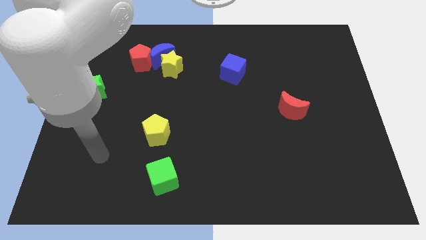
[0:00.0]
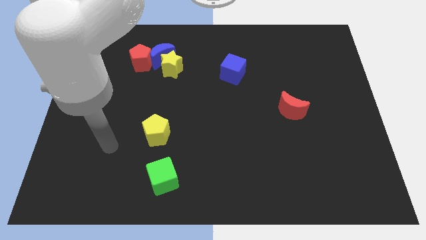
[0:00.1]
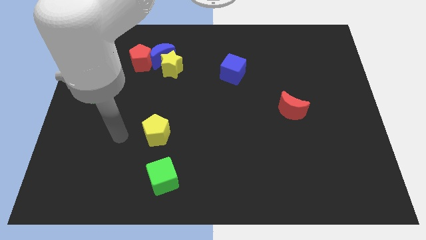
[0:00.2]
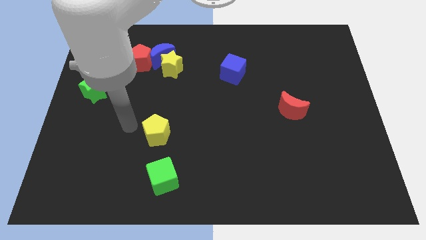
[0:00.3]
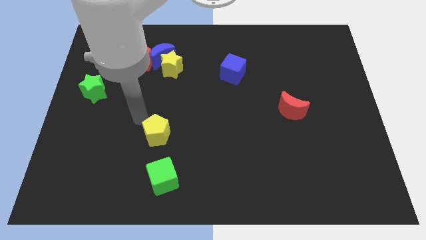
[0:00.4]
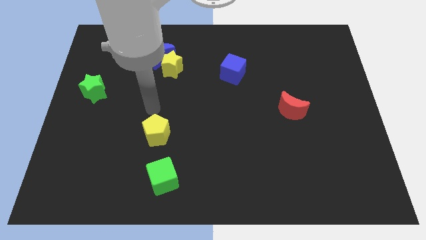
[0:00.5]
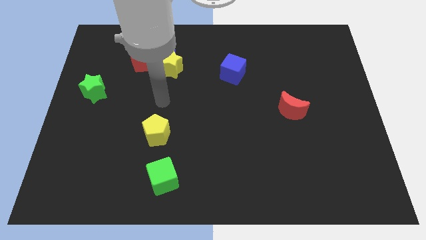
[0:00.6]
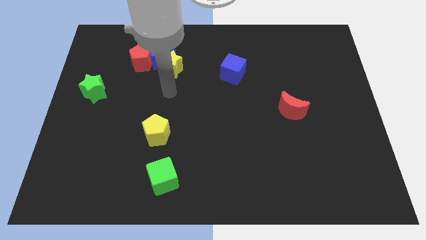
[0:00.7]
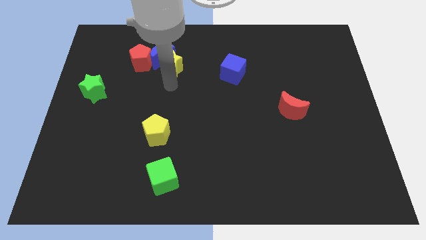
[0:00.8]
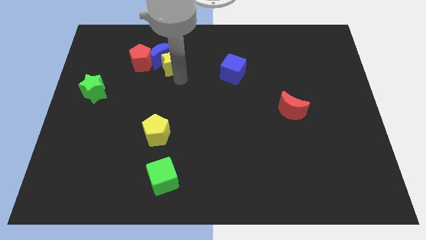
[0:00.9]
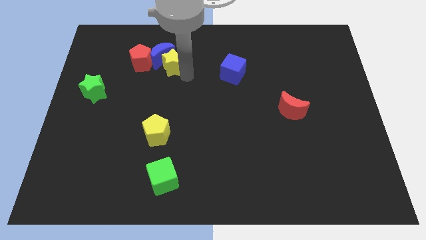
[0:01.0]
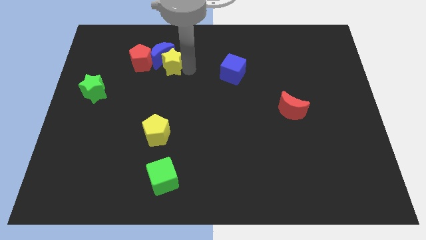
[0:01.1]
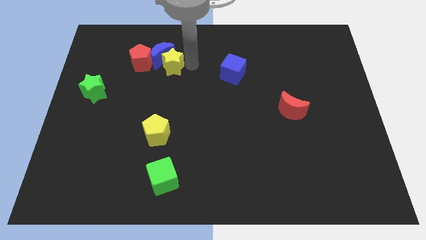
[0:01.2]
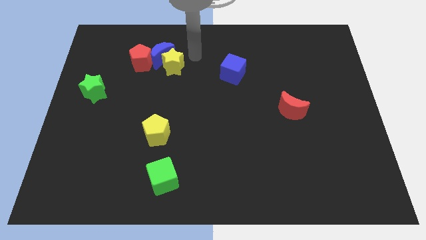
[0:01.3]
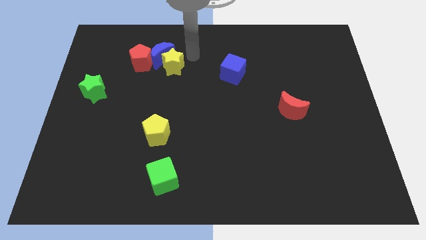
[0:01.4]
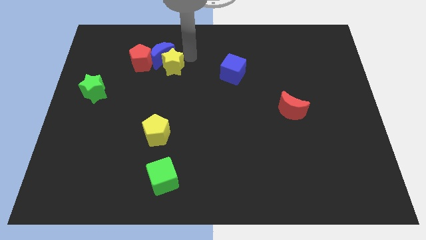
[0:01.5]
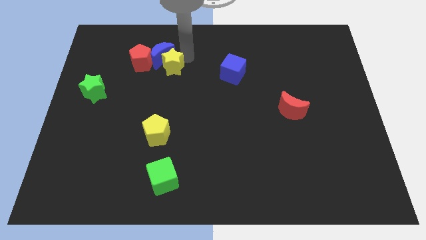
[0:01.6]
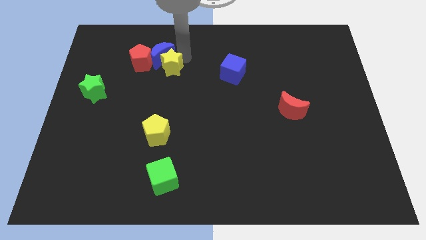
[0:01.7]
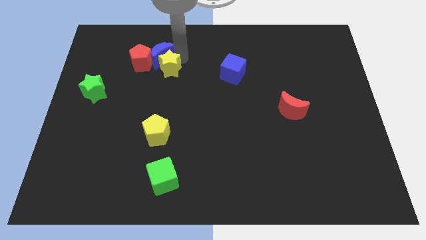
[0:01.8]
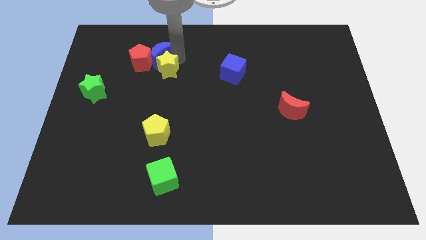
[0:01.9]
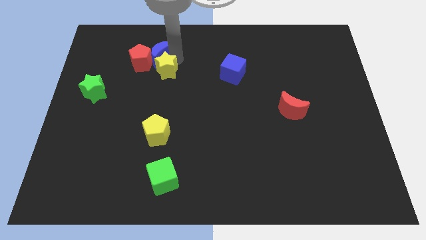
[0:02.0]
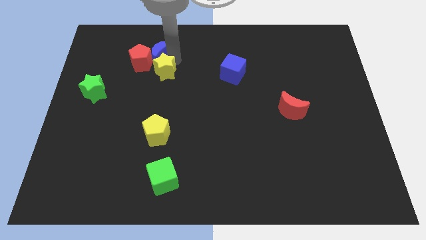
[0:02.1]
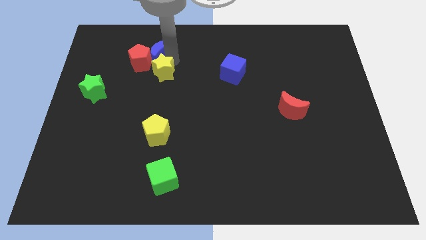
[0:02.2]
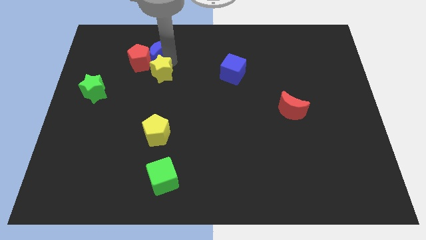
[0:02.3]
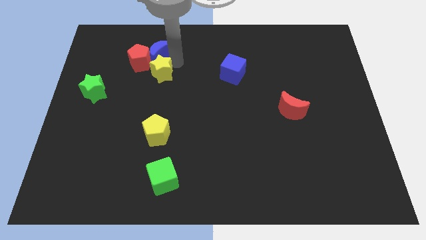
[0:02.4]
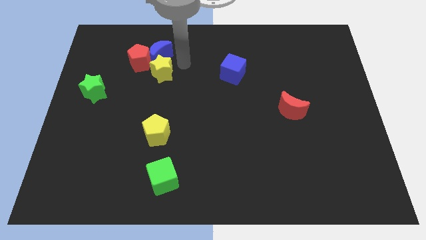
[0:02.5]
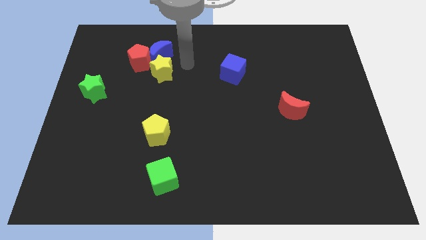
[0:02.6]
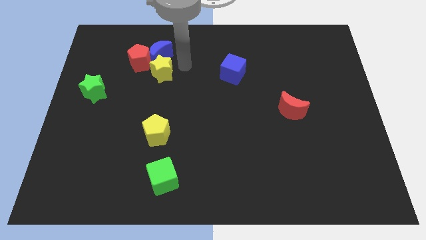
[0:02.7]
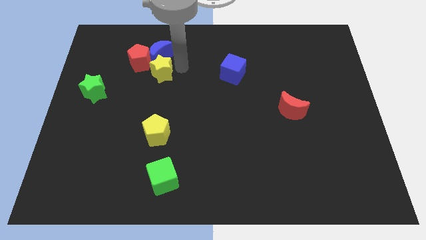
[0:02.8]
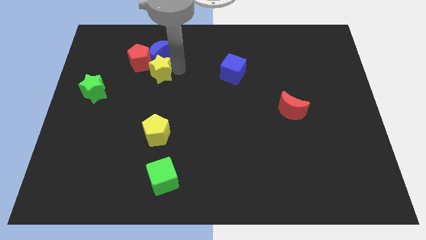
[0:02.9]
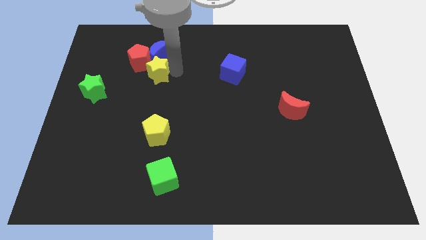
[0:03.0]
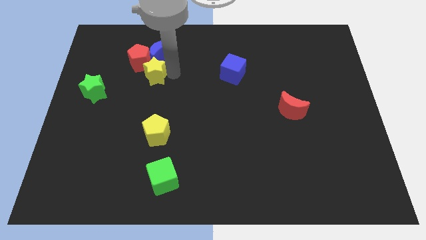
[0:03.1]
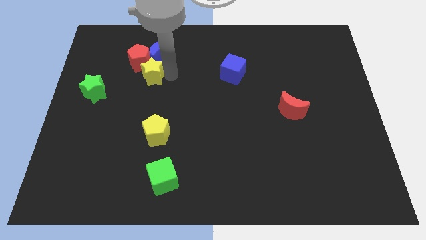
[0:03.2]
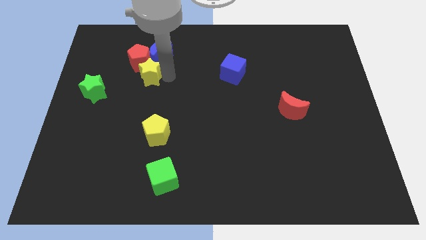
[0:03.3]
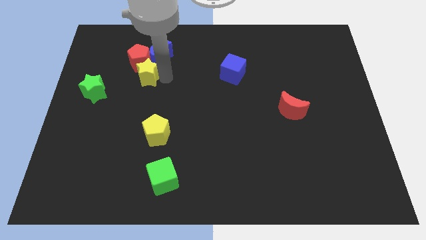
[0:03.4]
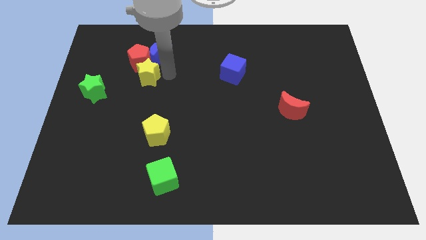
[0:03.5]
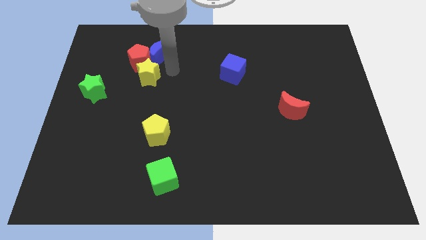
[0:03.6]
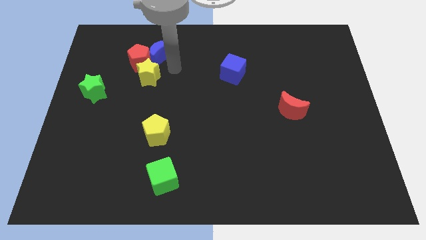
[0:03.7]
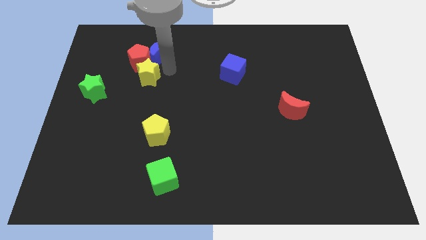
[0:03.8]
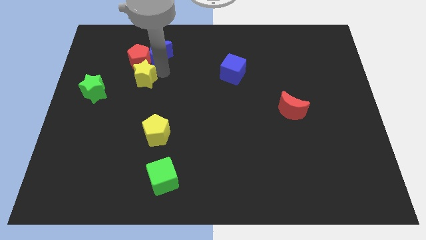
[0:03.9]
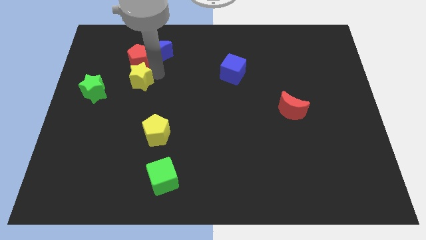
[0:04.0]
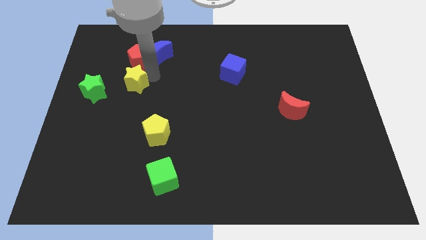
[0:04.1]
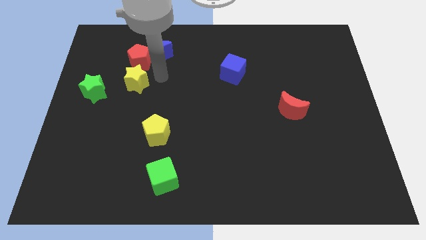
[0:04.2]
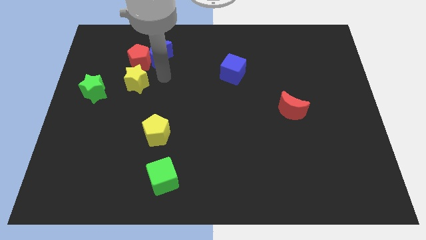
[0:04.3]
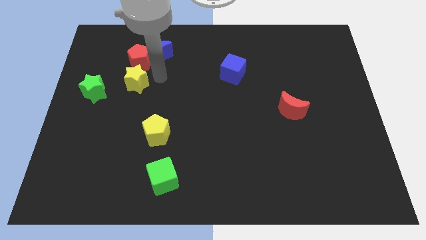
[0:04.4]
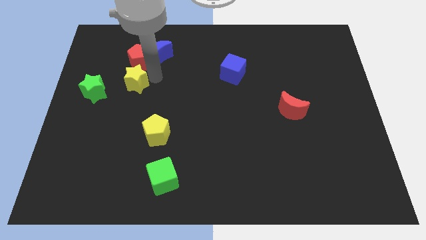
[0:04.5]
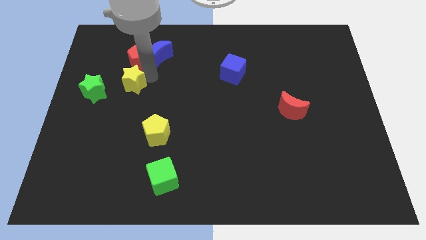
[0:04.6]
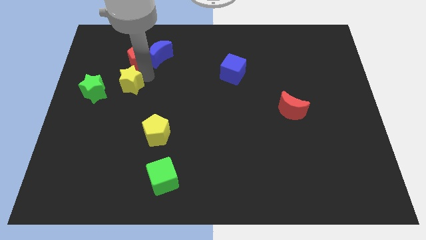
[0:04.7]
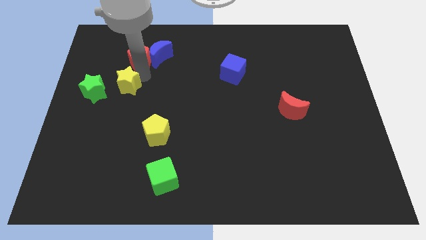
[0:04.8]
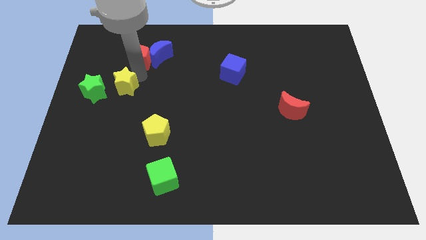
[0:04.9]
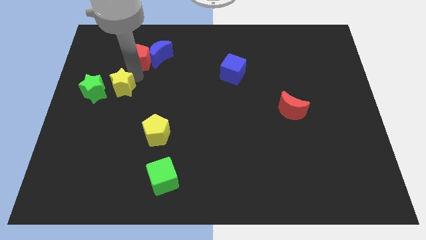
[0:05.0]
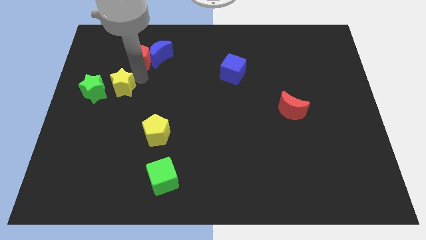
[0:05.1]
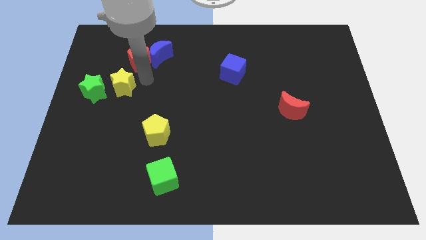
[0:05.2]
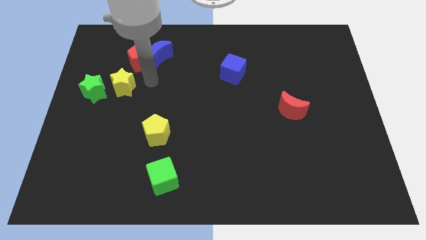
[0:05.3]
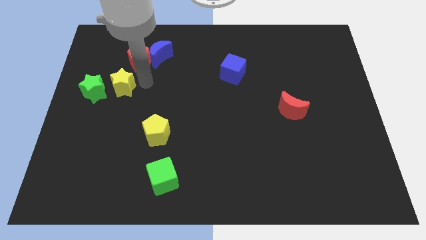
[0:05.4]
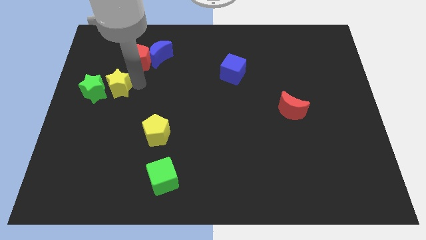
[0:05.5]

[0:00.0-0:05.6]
slide the yellow star next to the green star

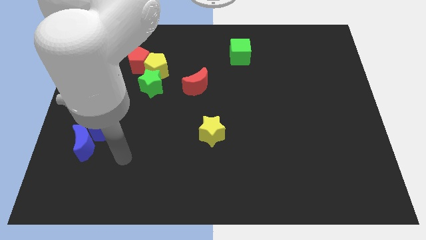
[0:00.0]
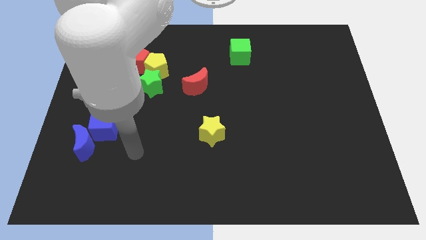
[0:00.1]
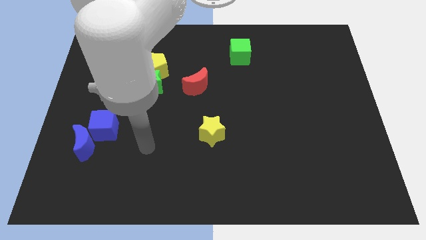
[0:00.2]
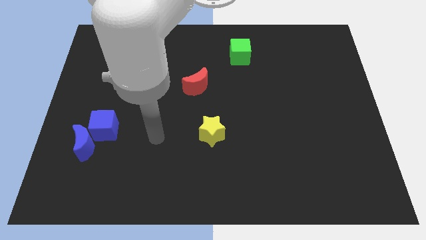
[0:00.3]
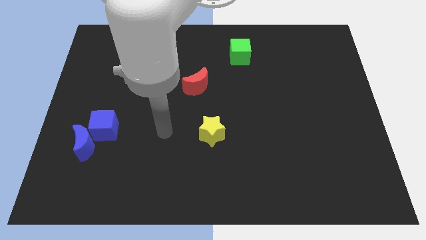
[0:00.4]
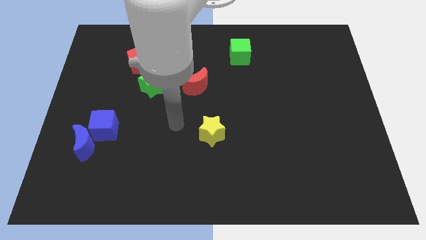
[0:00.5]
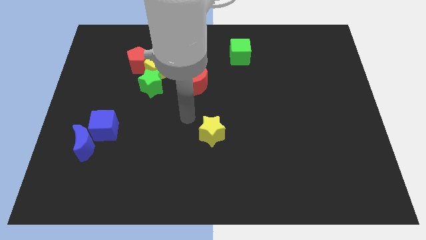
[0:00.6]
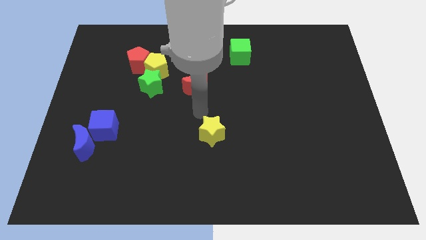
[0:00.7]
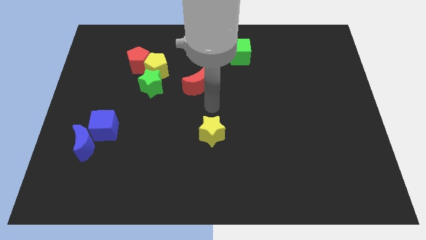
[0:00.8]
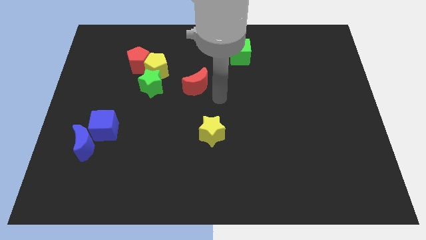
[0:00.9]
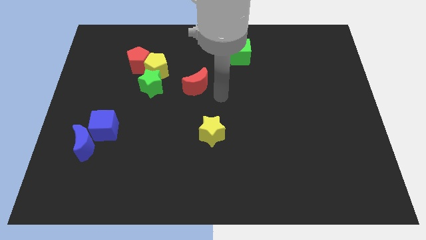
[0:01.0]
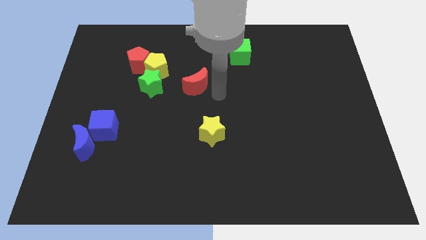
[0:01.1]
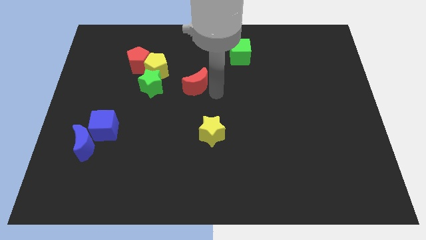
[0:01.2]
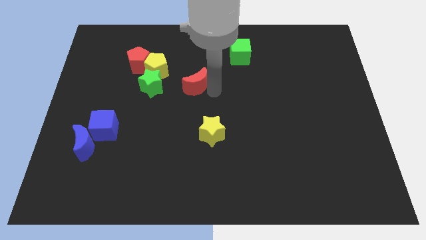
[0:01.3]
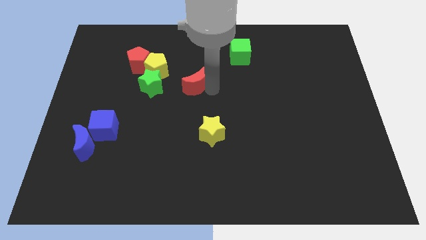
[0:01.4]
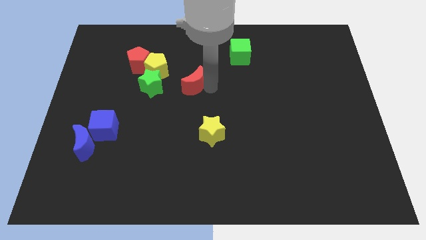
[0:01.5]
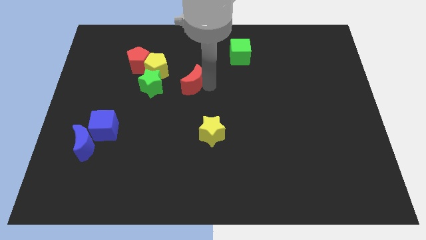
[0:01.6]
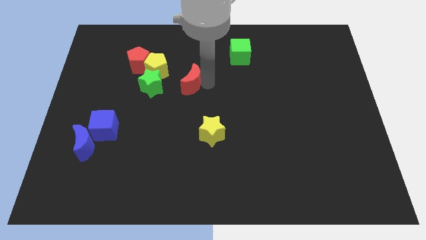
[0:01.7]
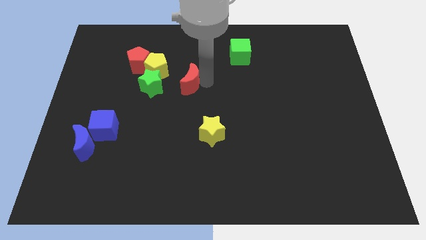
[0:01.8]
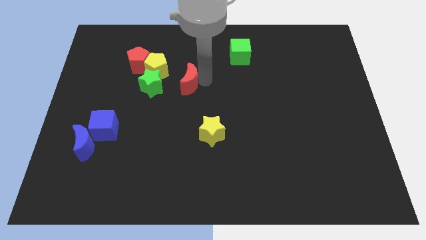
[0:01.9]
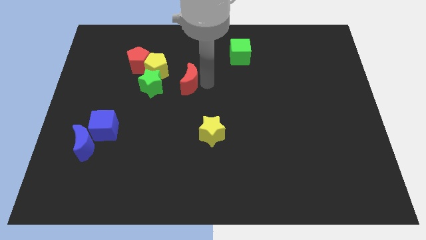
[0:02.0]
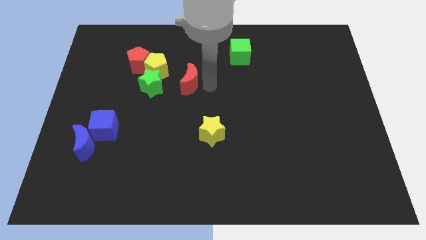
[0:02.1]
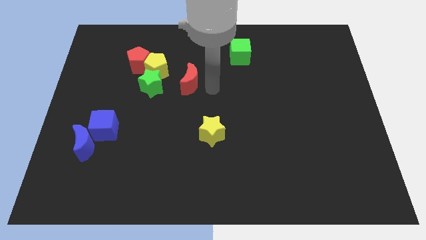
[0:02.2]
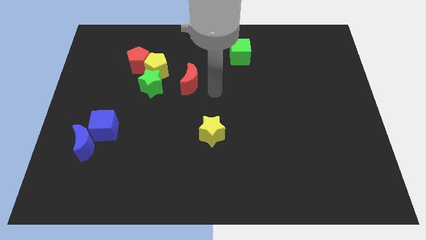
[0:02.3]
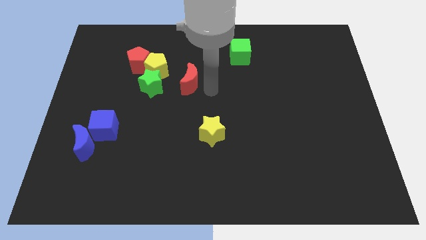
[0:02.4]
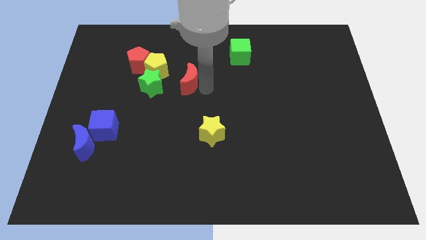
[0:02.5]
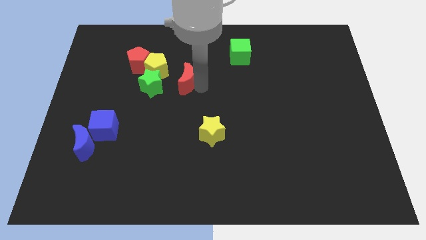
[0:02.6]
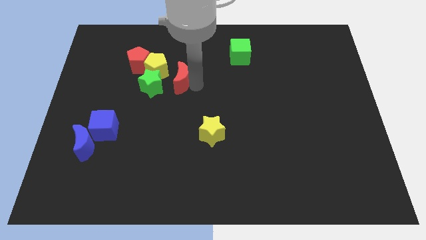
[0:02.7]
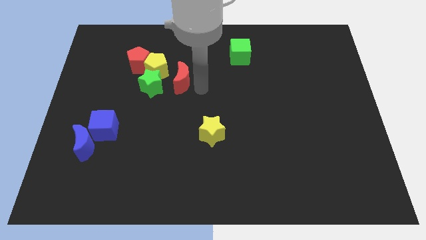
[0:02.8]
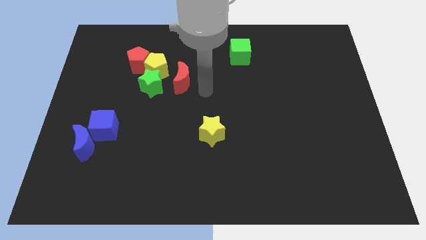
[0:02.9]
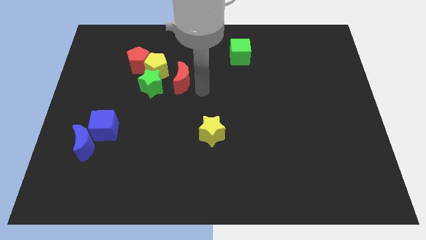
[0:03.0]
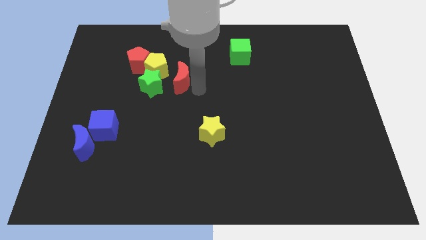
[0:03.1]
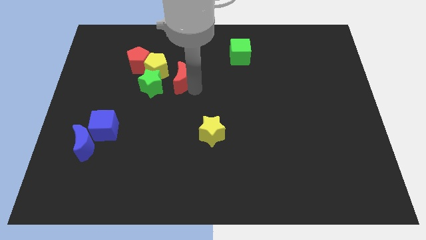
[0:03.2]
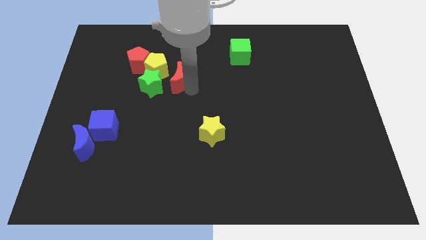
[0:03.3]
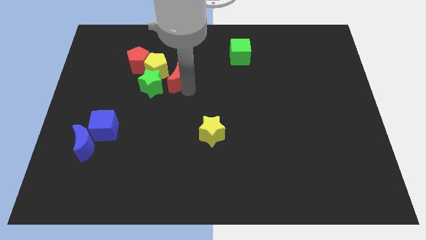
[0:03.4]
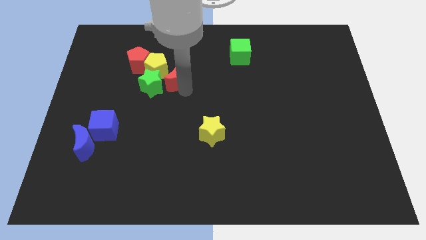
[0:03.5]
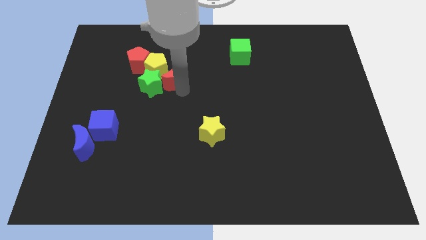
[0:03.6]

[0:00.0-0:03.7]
slide the red moon towards the yellow pentagon
